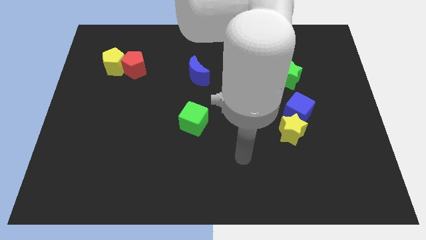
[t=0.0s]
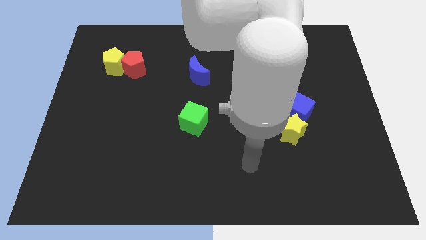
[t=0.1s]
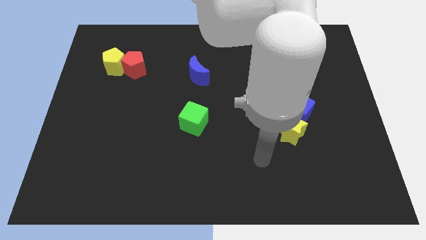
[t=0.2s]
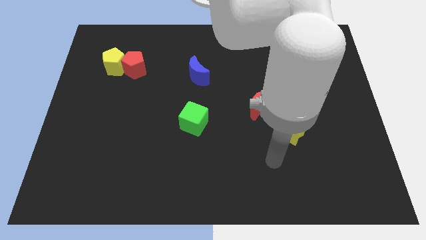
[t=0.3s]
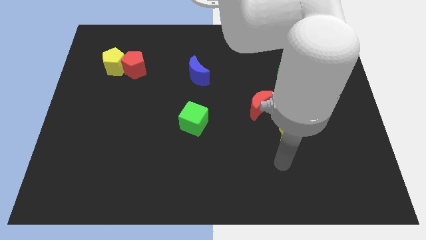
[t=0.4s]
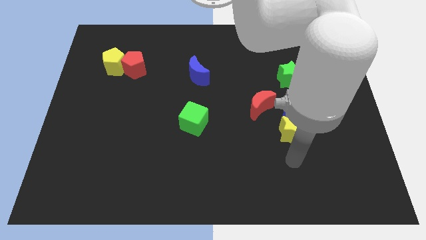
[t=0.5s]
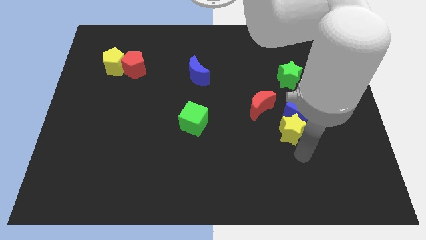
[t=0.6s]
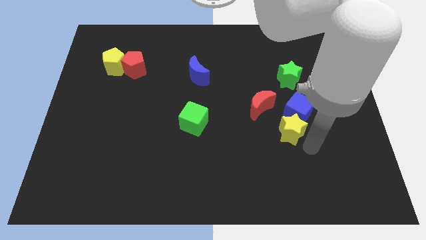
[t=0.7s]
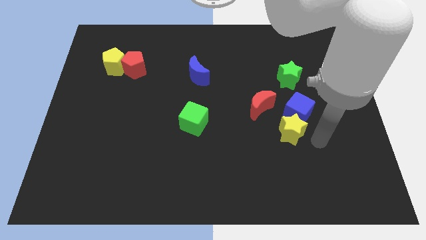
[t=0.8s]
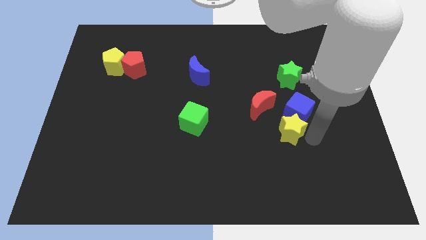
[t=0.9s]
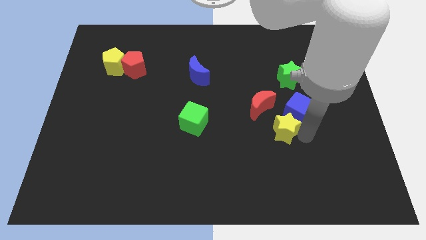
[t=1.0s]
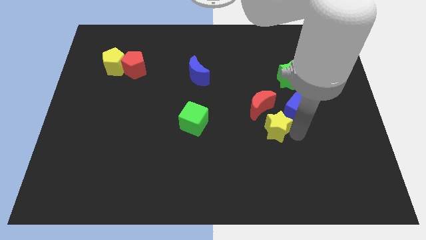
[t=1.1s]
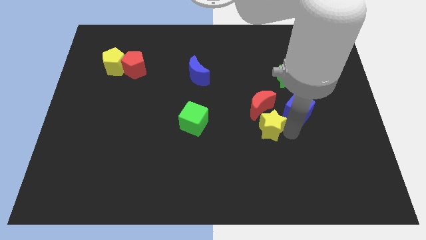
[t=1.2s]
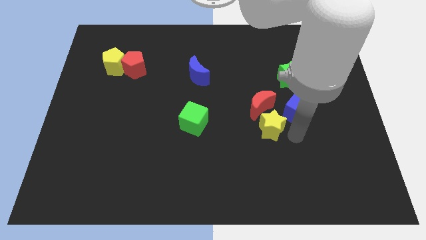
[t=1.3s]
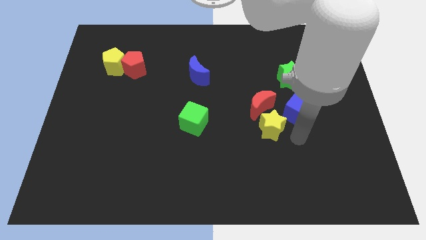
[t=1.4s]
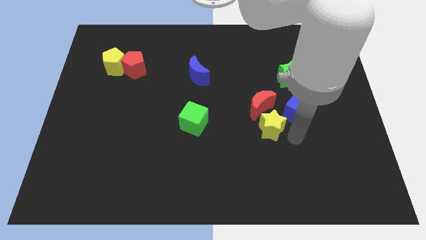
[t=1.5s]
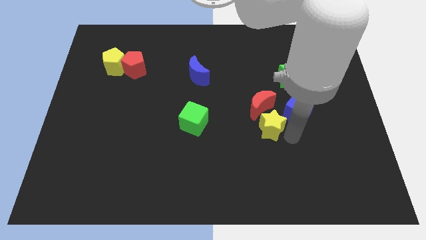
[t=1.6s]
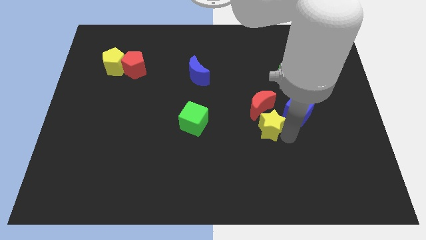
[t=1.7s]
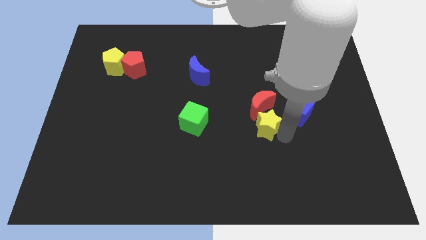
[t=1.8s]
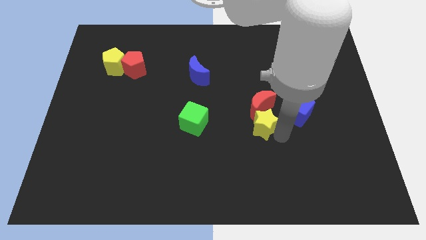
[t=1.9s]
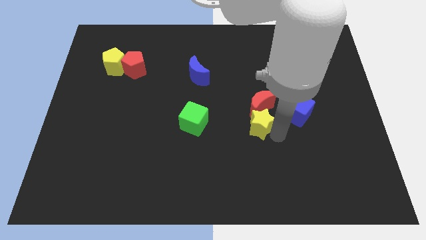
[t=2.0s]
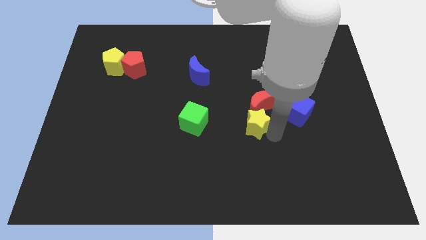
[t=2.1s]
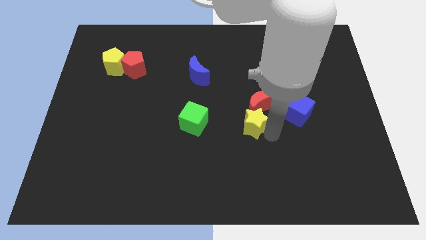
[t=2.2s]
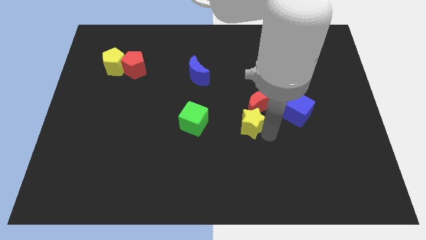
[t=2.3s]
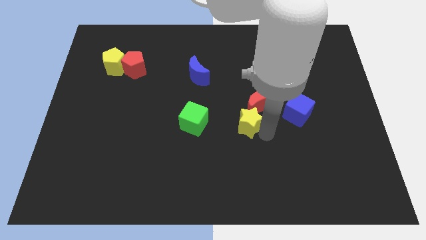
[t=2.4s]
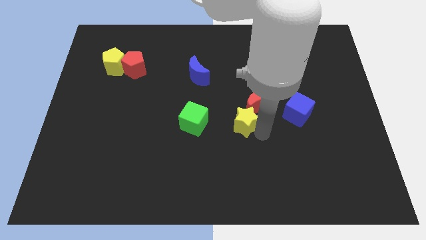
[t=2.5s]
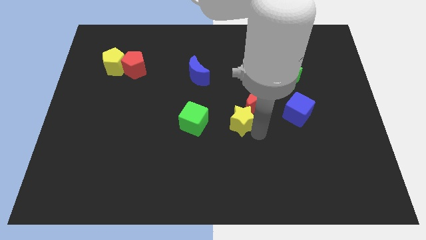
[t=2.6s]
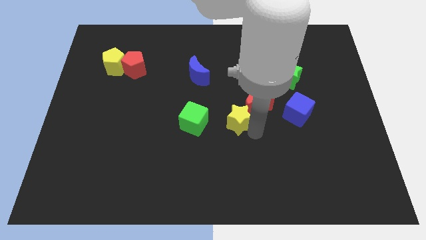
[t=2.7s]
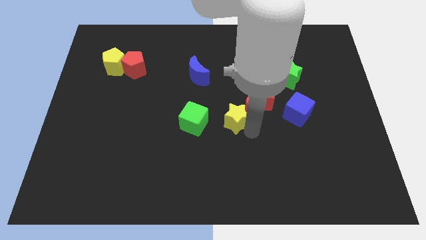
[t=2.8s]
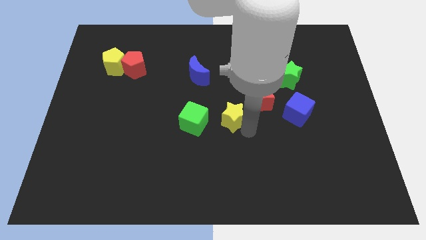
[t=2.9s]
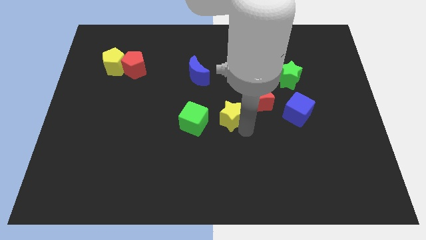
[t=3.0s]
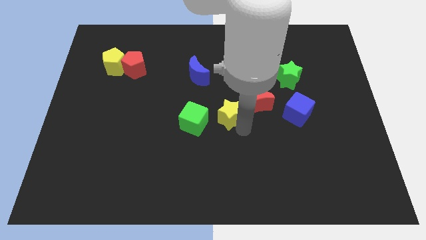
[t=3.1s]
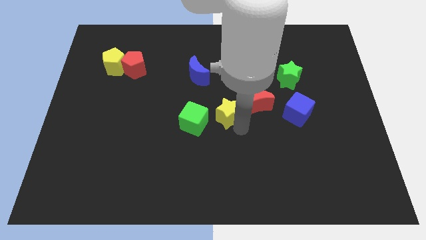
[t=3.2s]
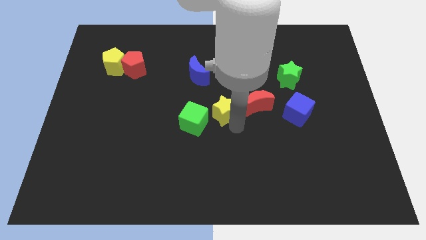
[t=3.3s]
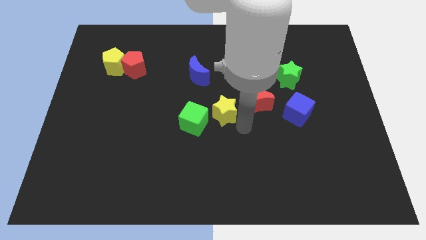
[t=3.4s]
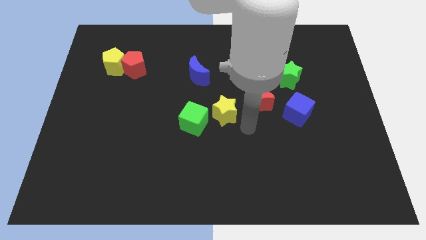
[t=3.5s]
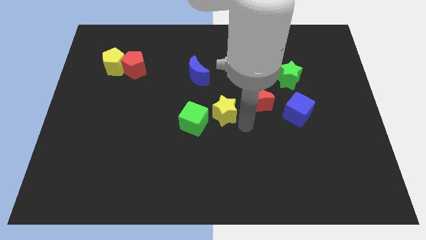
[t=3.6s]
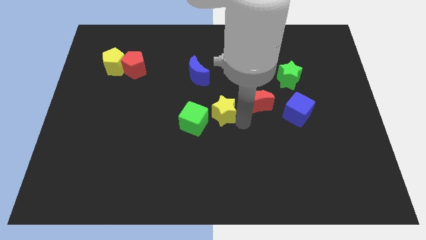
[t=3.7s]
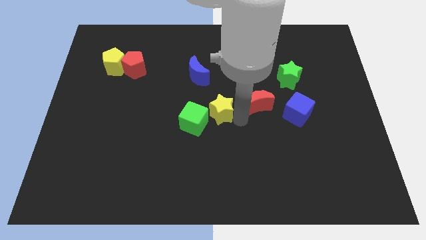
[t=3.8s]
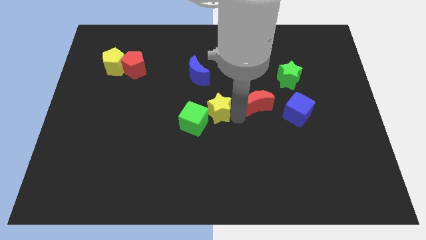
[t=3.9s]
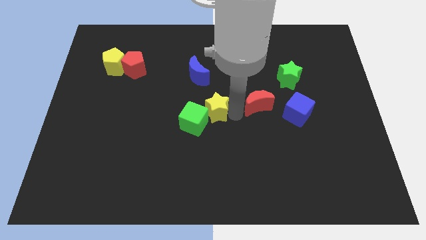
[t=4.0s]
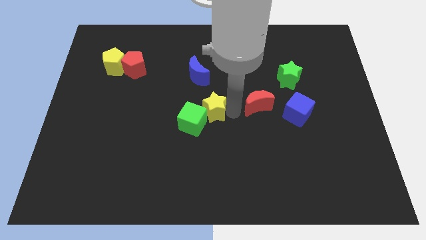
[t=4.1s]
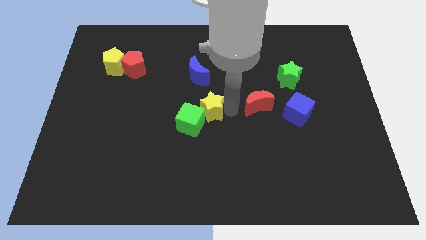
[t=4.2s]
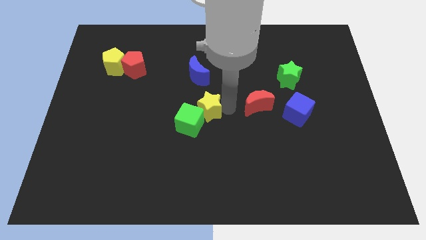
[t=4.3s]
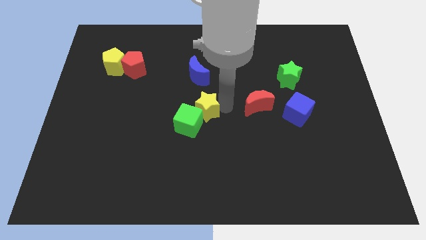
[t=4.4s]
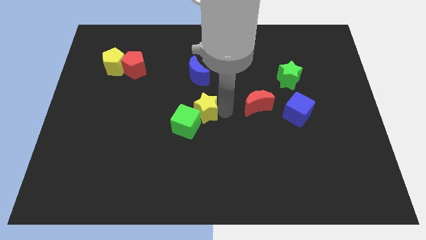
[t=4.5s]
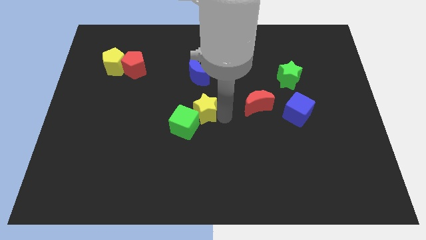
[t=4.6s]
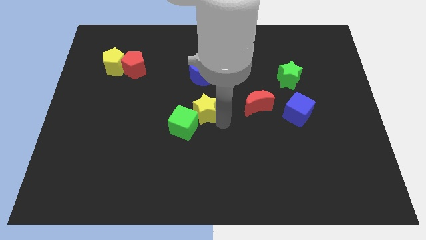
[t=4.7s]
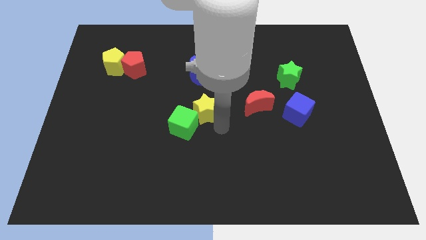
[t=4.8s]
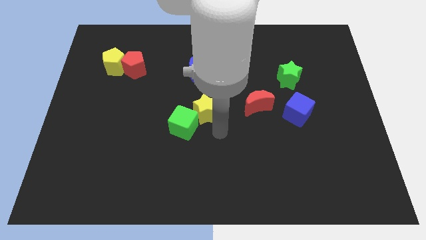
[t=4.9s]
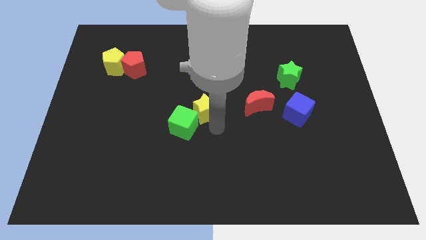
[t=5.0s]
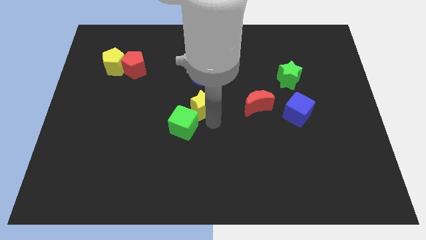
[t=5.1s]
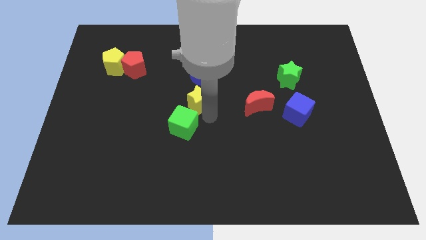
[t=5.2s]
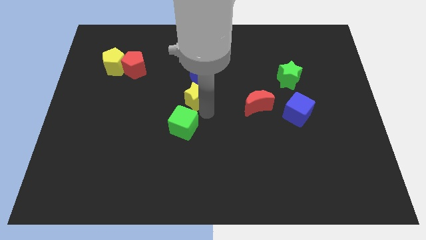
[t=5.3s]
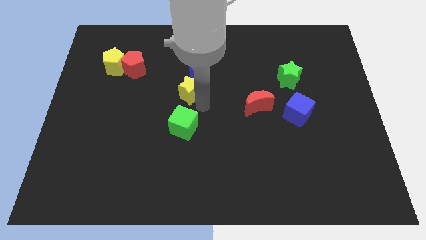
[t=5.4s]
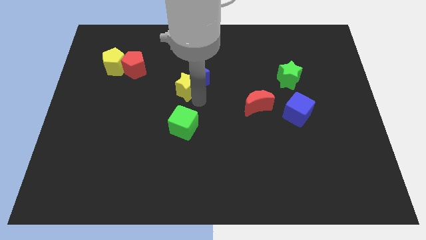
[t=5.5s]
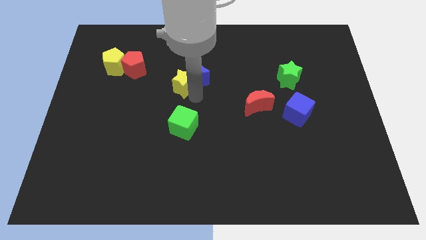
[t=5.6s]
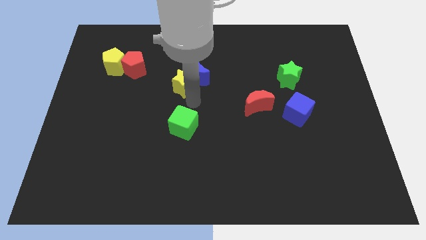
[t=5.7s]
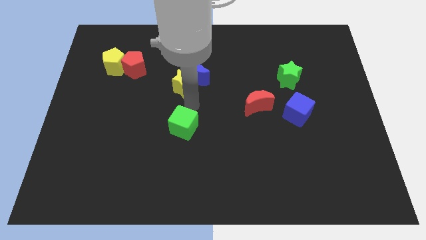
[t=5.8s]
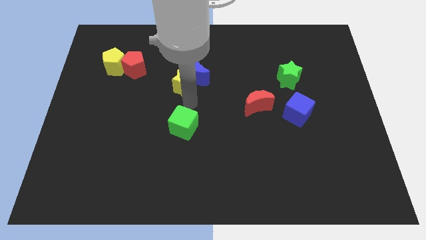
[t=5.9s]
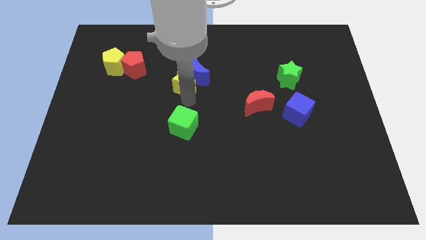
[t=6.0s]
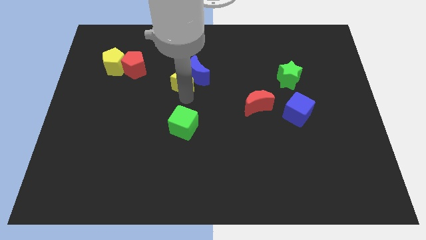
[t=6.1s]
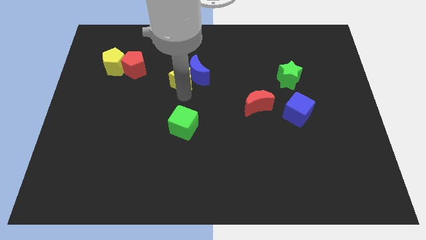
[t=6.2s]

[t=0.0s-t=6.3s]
put the yellow star to the top left side of the blue moon

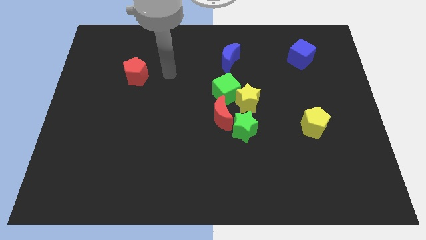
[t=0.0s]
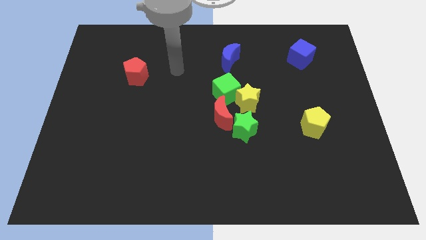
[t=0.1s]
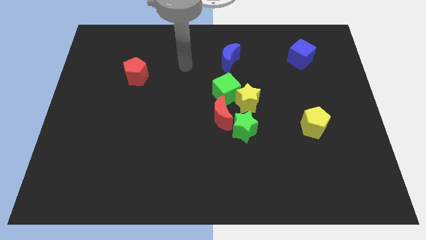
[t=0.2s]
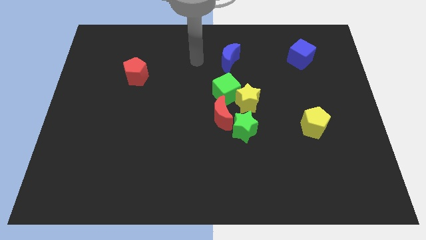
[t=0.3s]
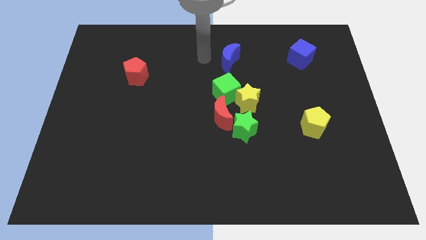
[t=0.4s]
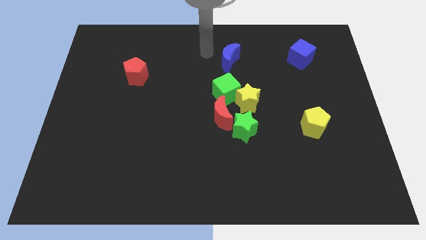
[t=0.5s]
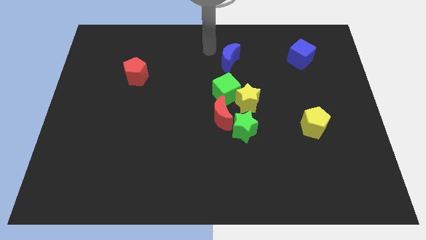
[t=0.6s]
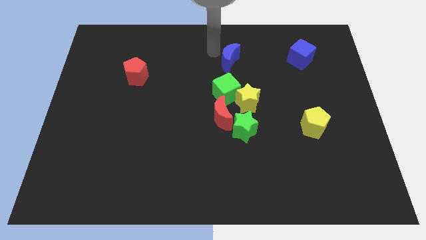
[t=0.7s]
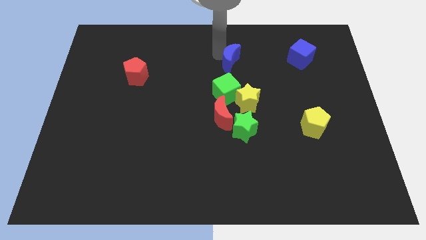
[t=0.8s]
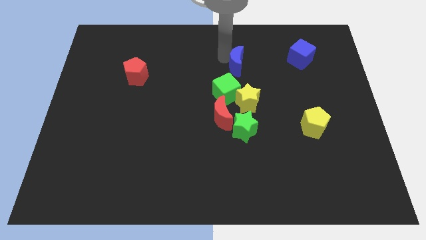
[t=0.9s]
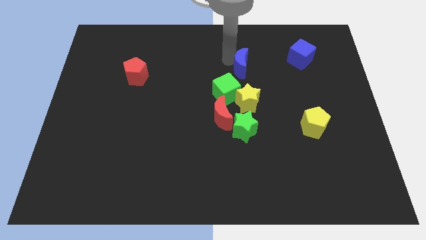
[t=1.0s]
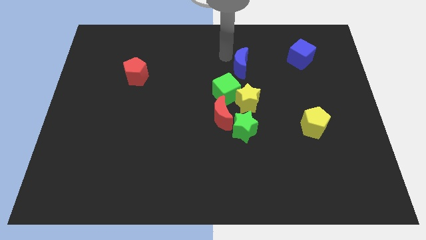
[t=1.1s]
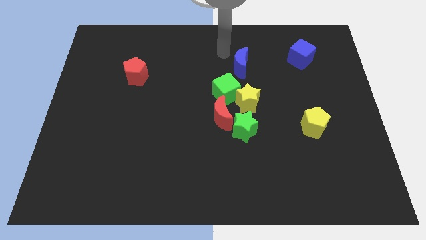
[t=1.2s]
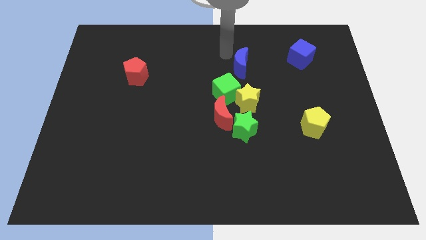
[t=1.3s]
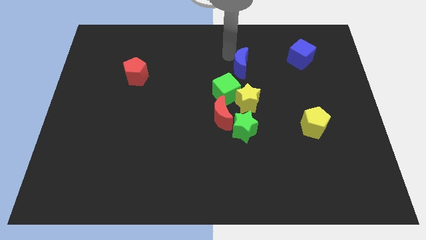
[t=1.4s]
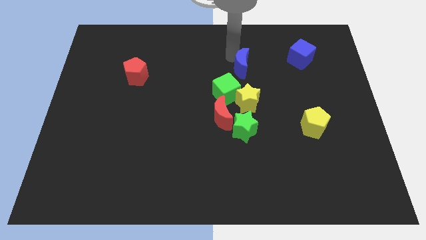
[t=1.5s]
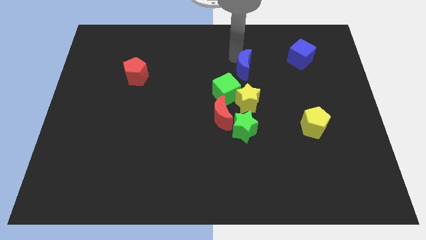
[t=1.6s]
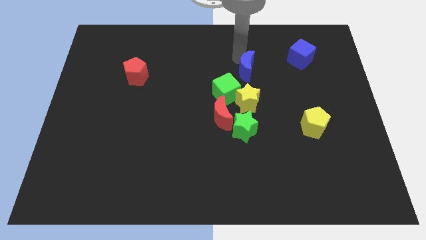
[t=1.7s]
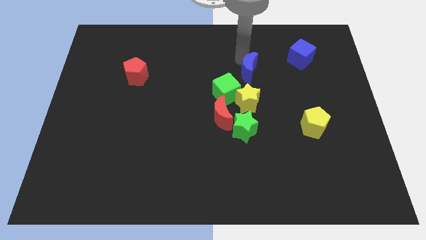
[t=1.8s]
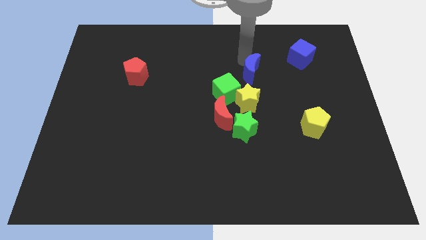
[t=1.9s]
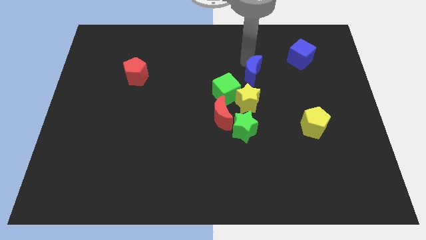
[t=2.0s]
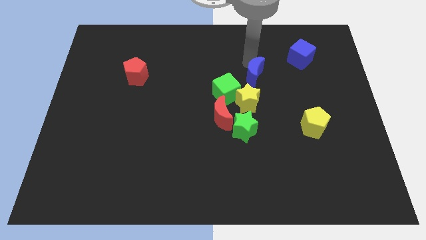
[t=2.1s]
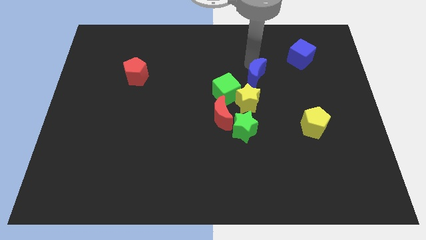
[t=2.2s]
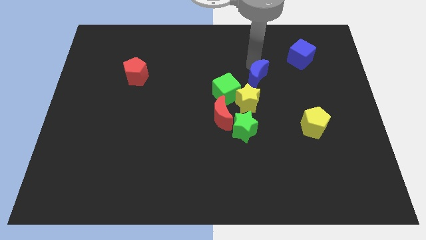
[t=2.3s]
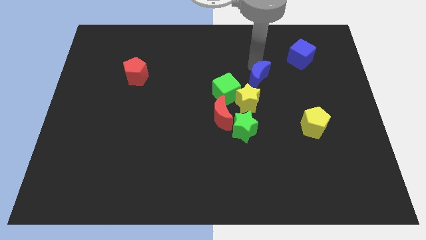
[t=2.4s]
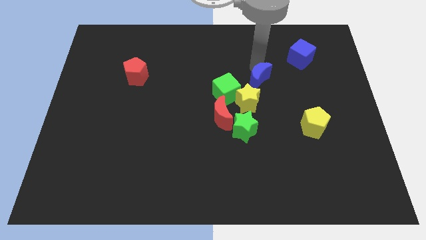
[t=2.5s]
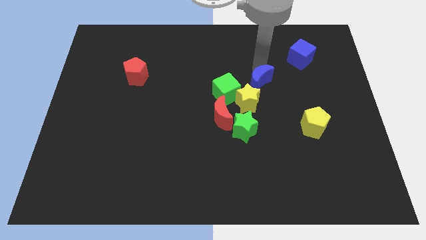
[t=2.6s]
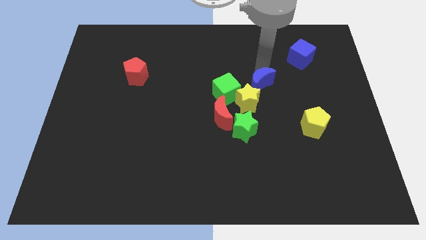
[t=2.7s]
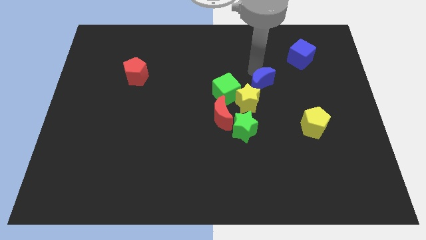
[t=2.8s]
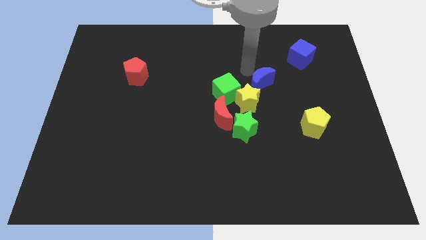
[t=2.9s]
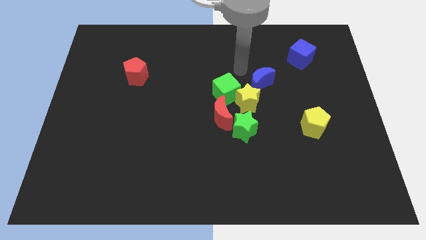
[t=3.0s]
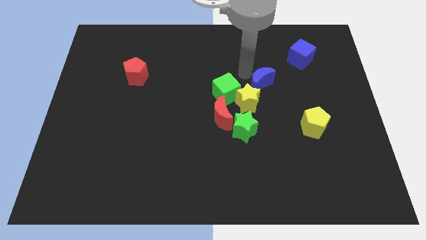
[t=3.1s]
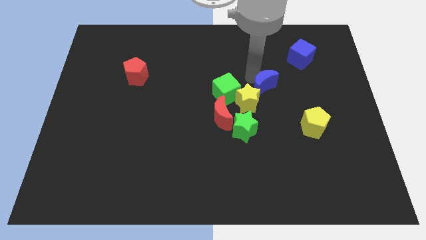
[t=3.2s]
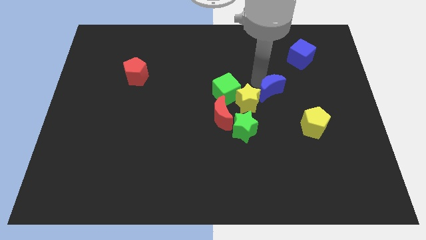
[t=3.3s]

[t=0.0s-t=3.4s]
slide the blue moon just right of the yellow star
